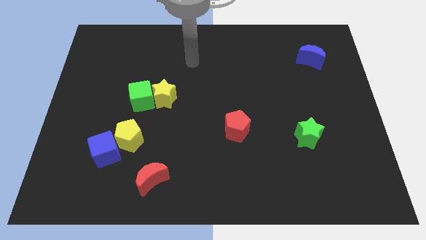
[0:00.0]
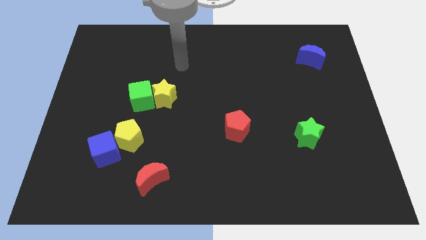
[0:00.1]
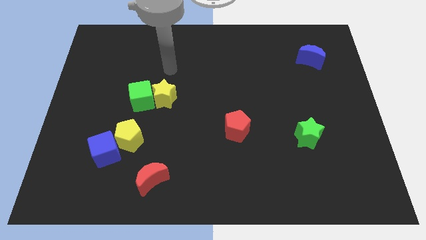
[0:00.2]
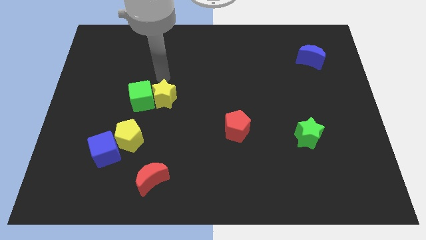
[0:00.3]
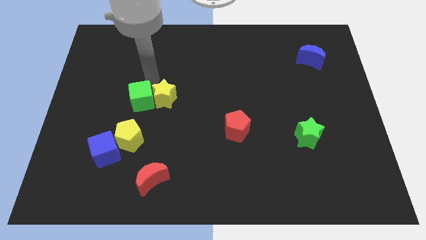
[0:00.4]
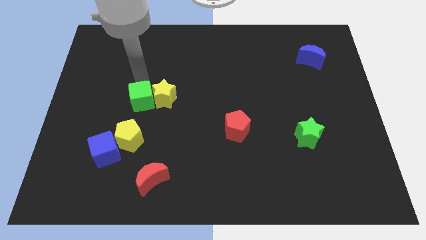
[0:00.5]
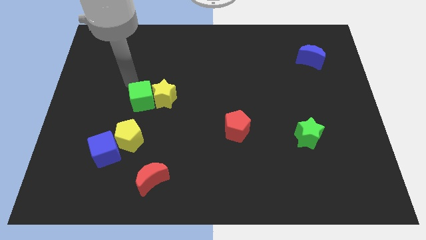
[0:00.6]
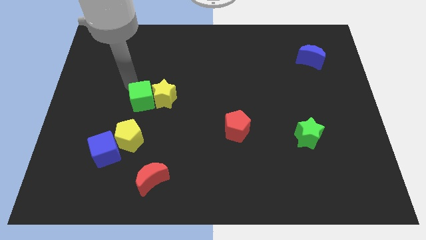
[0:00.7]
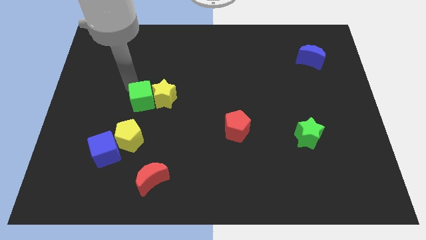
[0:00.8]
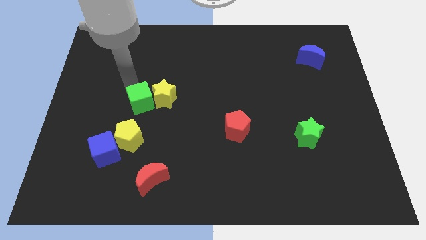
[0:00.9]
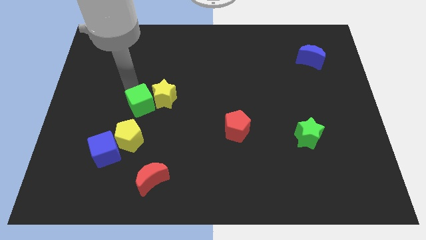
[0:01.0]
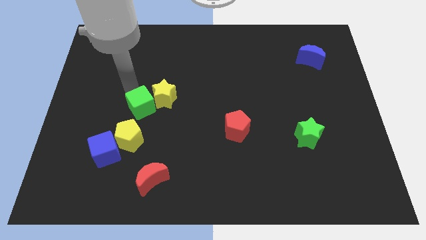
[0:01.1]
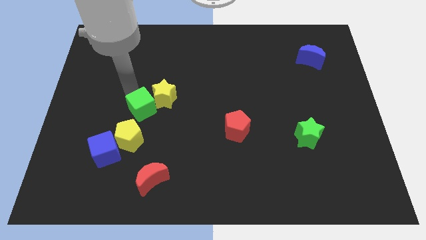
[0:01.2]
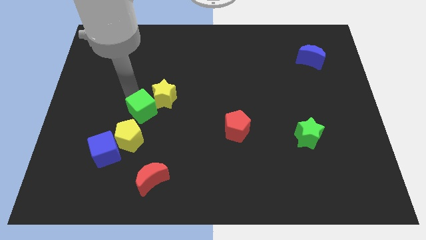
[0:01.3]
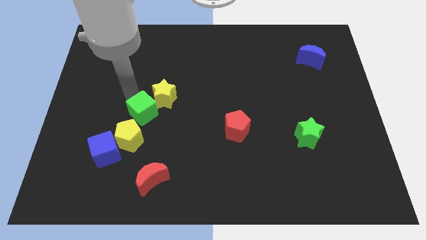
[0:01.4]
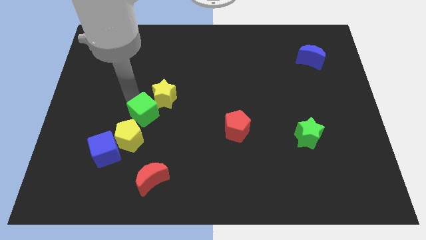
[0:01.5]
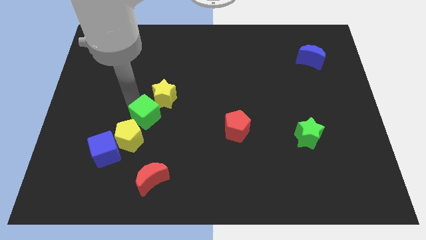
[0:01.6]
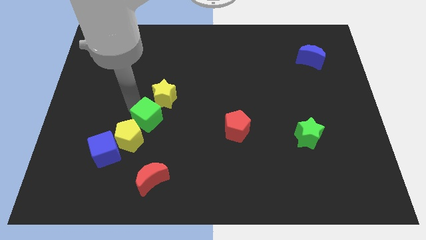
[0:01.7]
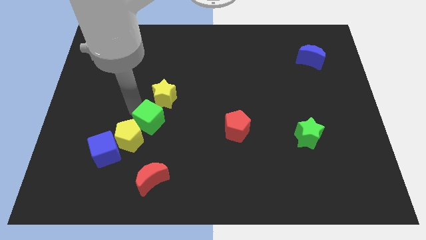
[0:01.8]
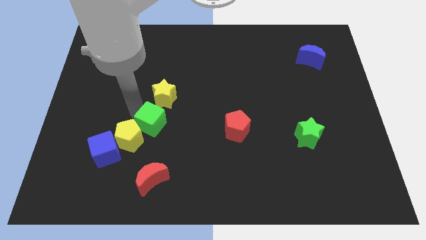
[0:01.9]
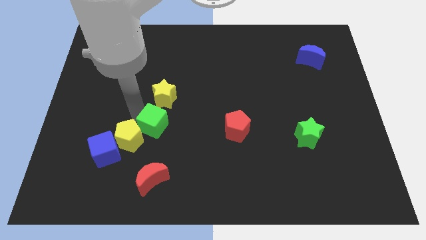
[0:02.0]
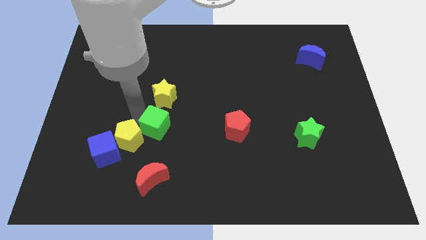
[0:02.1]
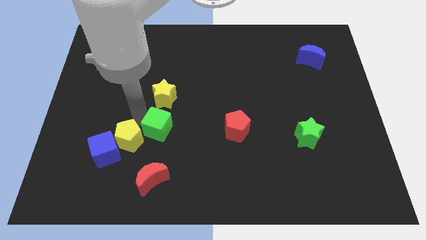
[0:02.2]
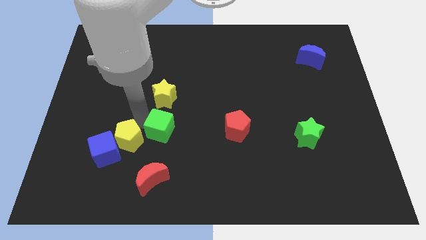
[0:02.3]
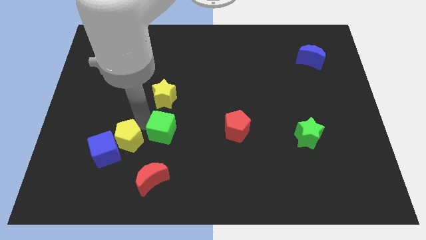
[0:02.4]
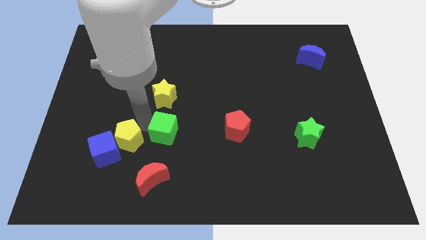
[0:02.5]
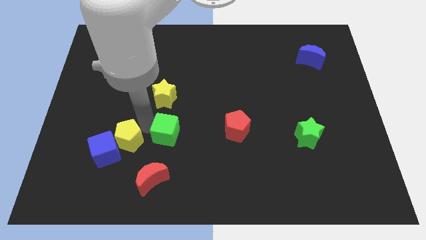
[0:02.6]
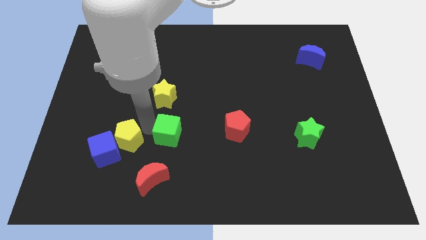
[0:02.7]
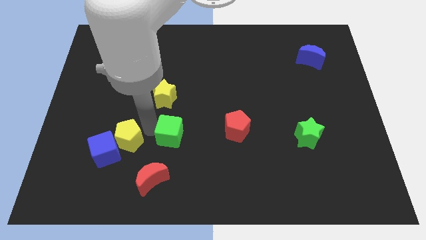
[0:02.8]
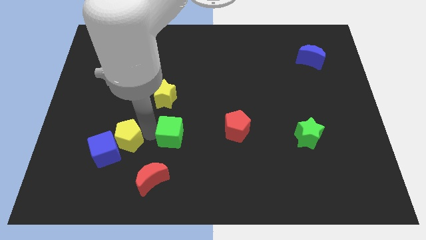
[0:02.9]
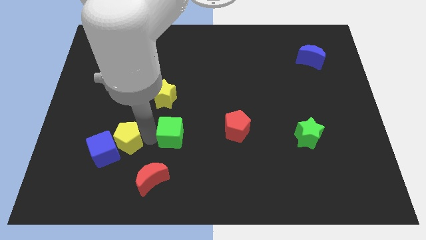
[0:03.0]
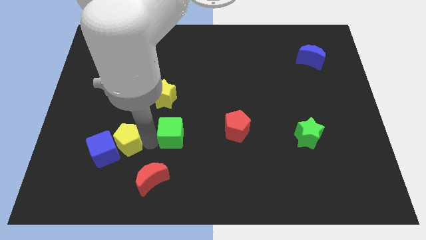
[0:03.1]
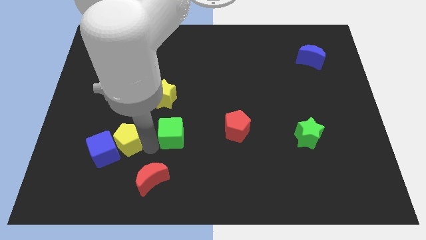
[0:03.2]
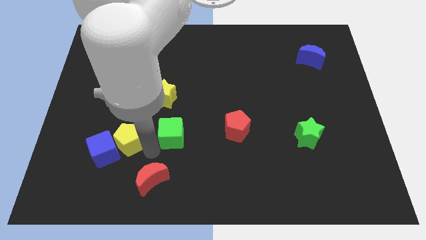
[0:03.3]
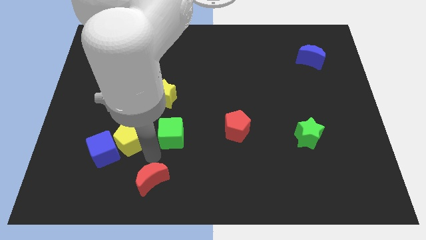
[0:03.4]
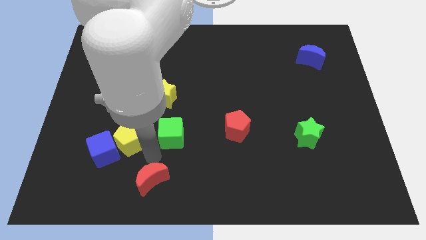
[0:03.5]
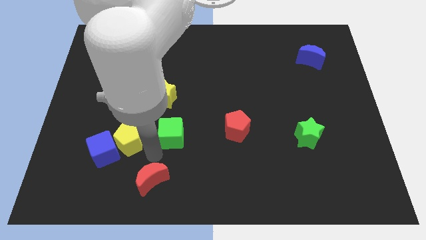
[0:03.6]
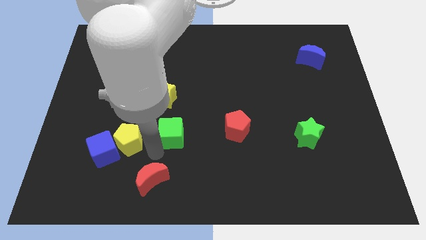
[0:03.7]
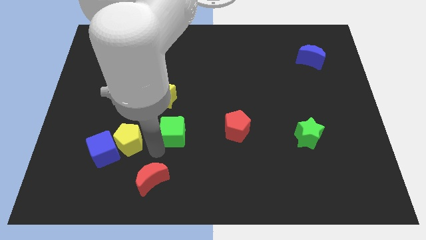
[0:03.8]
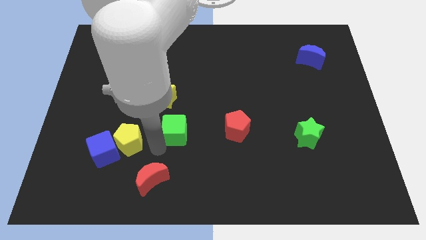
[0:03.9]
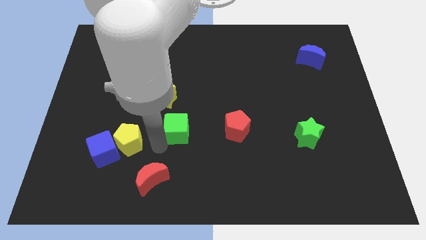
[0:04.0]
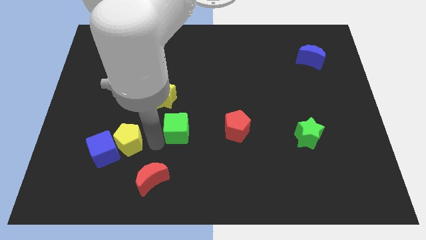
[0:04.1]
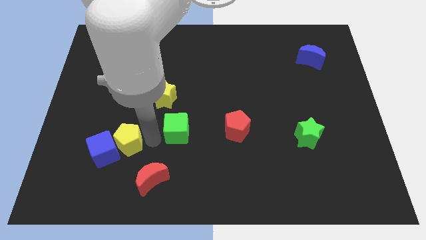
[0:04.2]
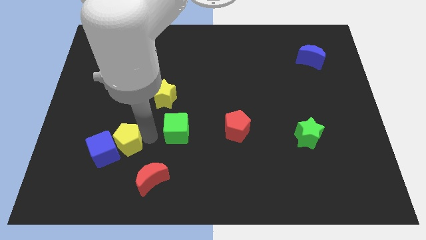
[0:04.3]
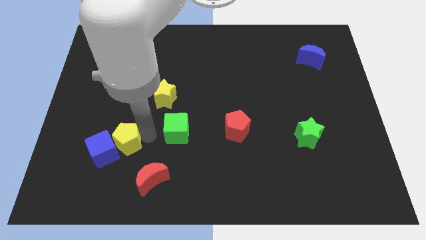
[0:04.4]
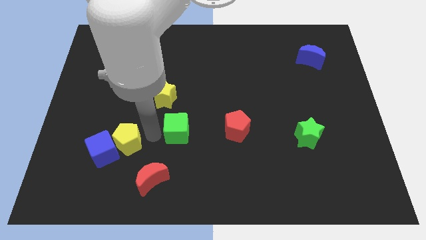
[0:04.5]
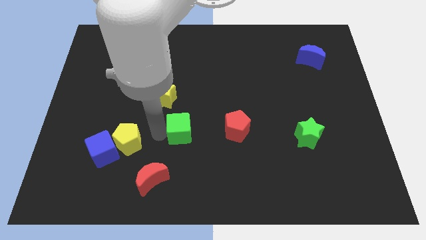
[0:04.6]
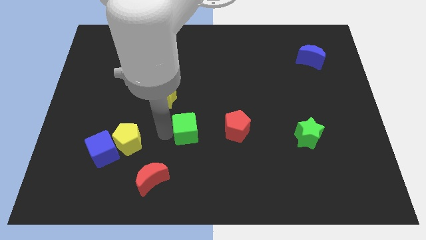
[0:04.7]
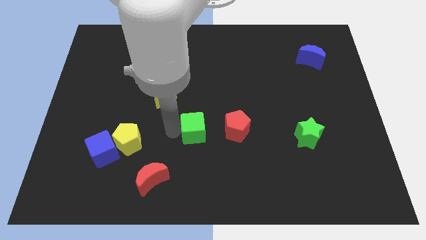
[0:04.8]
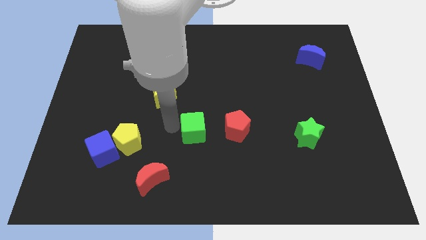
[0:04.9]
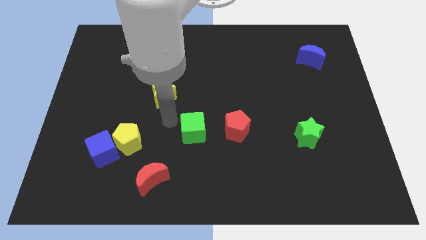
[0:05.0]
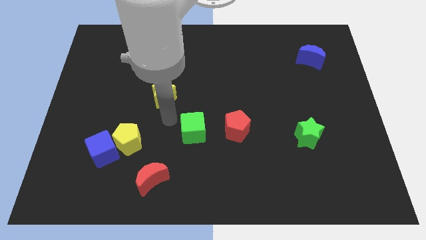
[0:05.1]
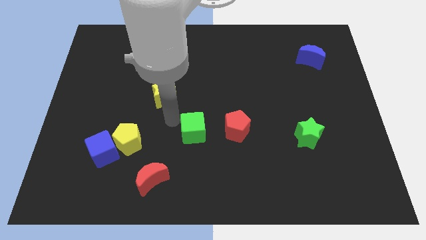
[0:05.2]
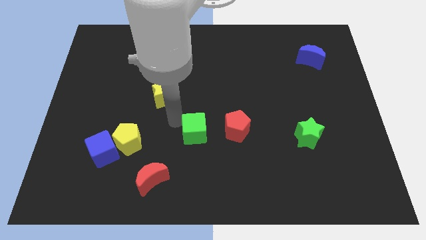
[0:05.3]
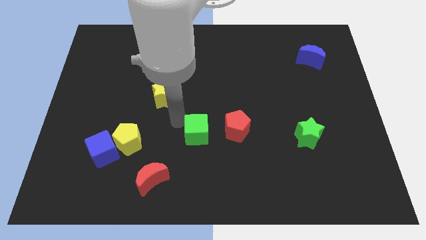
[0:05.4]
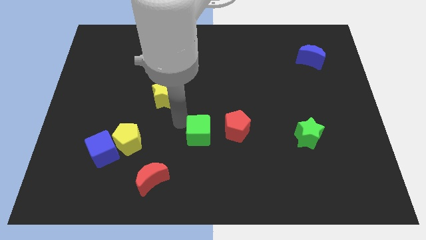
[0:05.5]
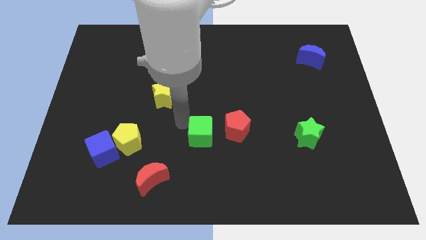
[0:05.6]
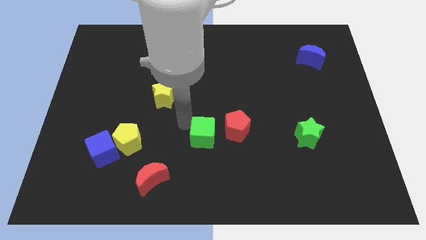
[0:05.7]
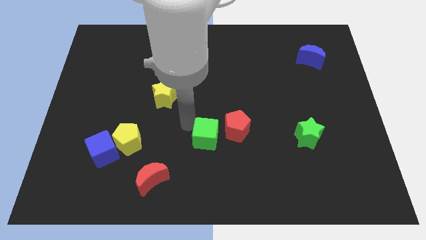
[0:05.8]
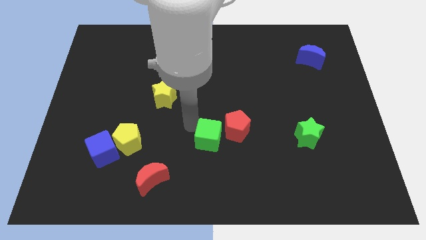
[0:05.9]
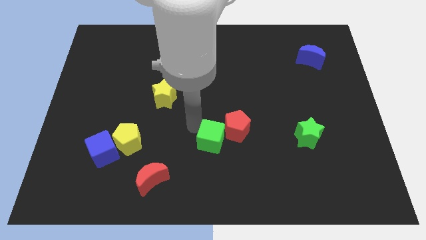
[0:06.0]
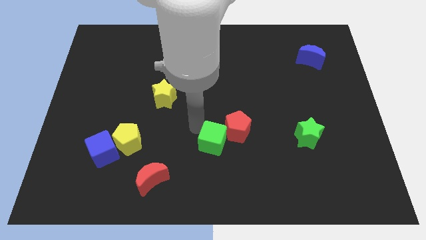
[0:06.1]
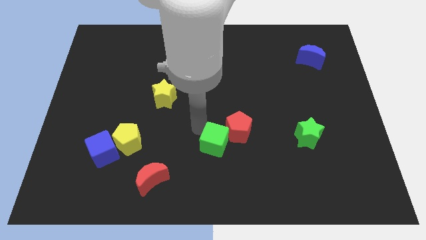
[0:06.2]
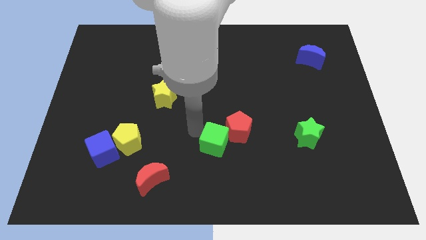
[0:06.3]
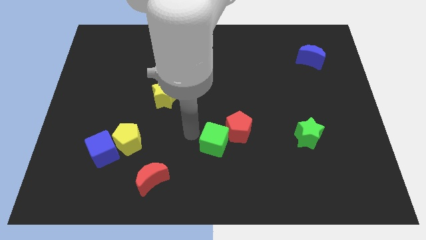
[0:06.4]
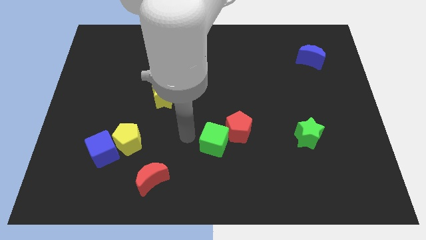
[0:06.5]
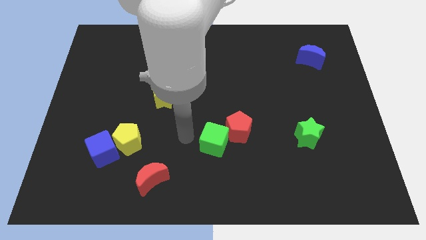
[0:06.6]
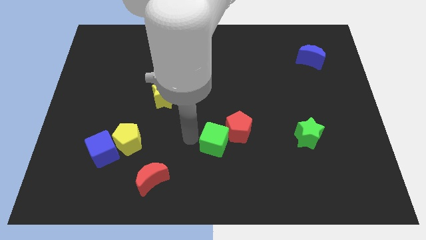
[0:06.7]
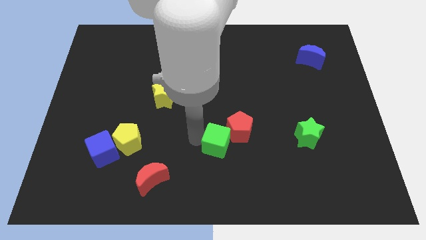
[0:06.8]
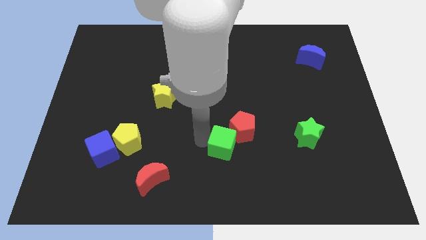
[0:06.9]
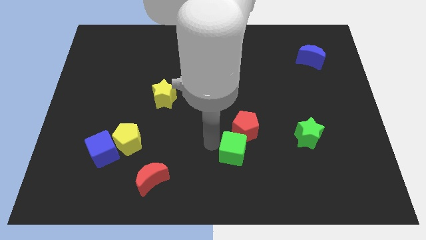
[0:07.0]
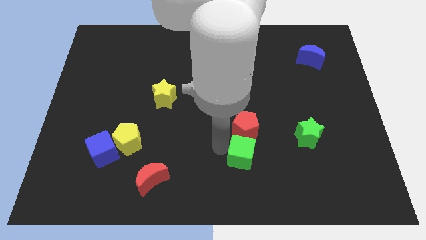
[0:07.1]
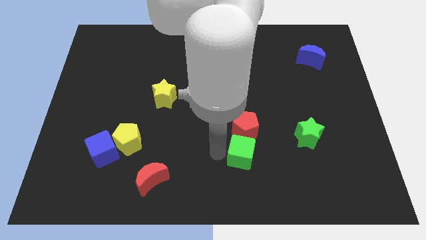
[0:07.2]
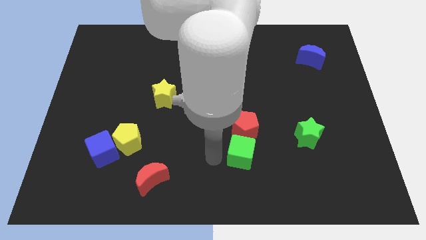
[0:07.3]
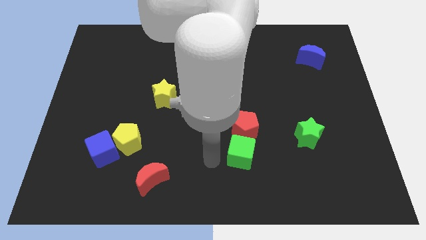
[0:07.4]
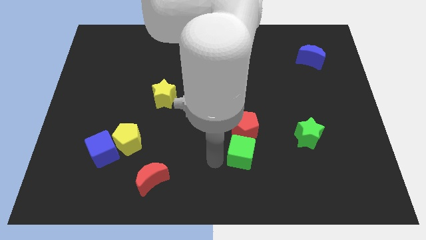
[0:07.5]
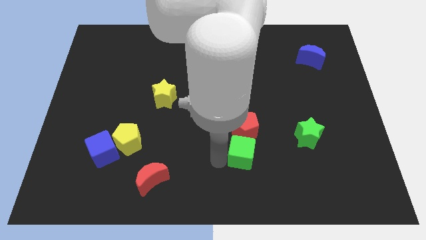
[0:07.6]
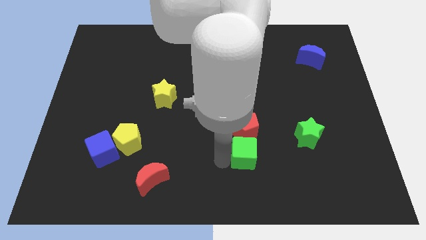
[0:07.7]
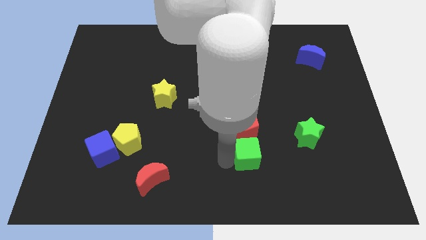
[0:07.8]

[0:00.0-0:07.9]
slide the green cube to the bottom right of the red pentagon
